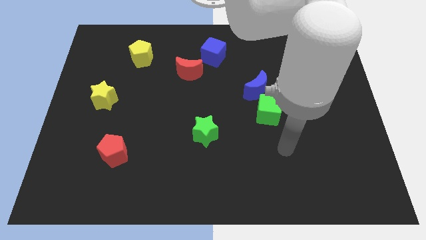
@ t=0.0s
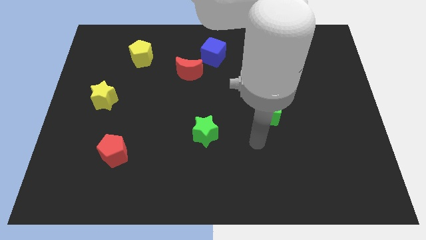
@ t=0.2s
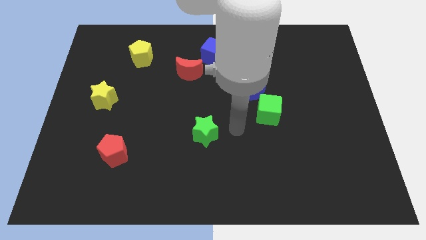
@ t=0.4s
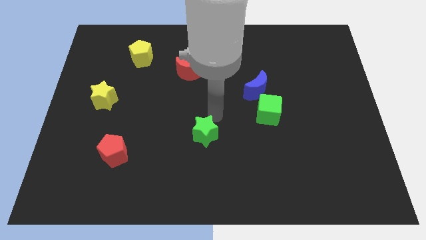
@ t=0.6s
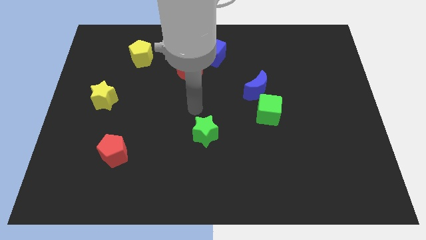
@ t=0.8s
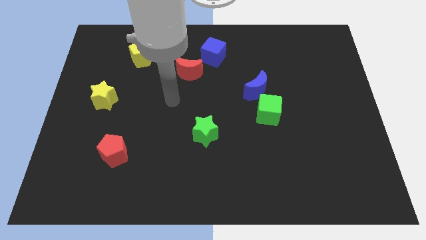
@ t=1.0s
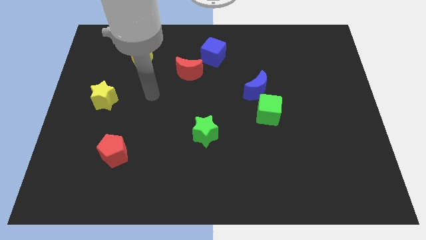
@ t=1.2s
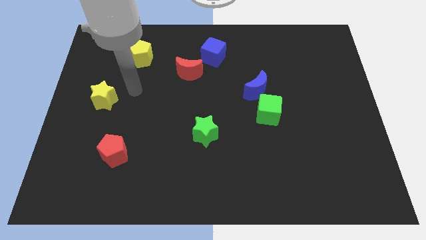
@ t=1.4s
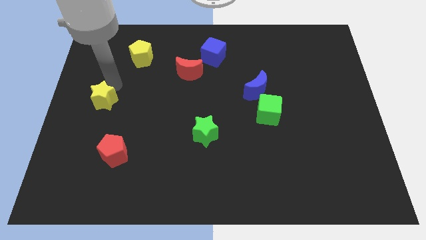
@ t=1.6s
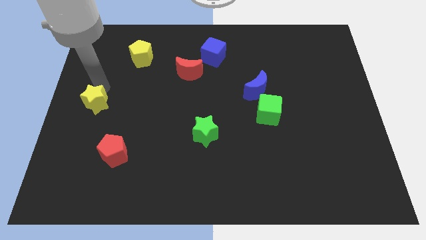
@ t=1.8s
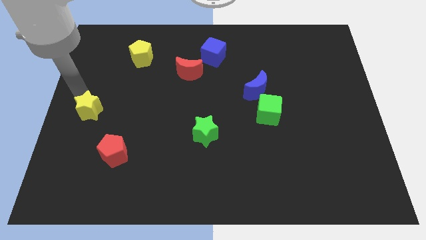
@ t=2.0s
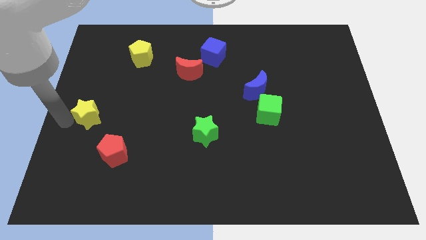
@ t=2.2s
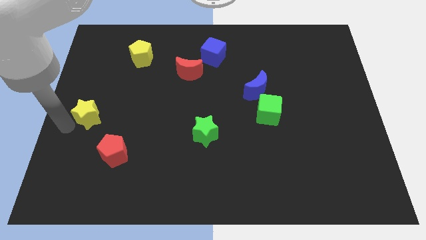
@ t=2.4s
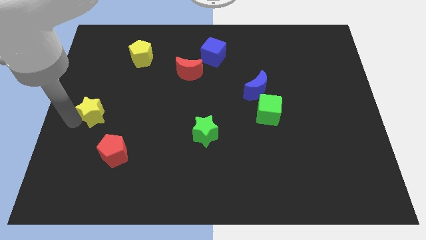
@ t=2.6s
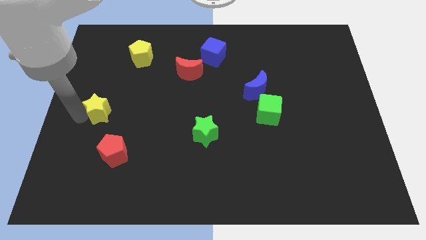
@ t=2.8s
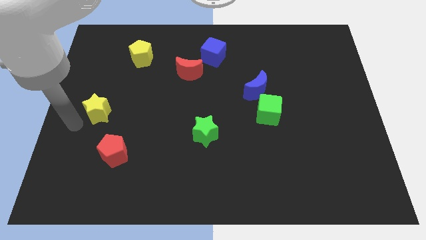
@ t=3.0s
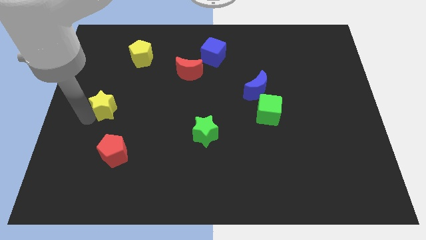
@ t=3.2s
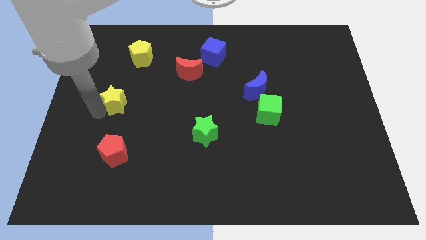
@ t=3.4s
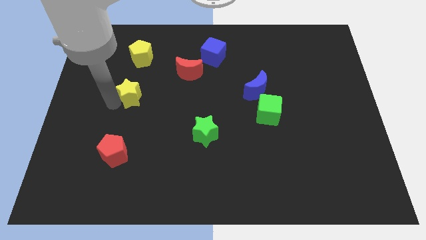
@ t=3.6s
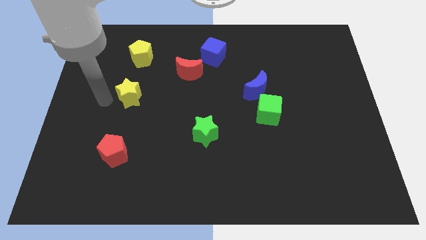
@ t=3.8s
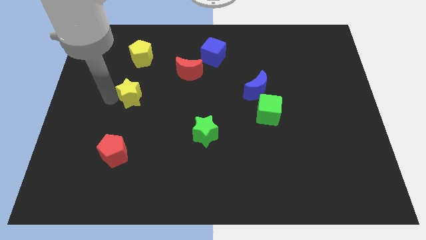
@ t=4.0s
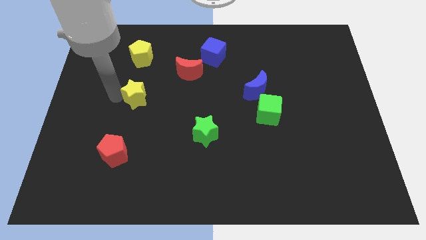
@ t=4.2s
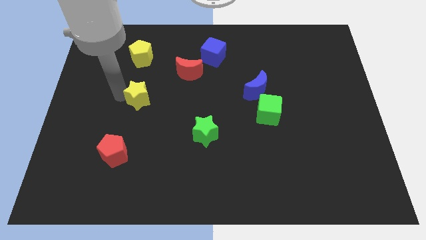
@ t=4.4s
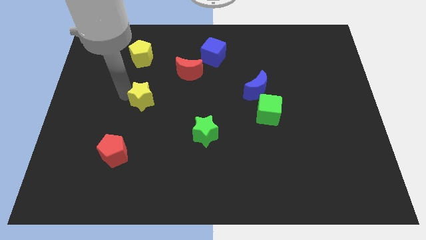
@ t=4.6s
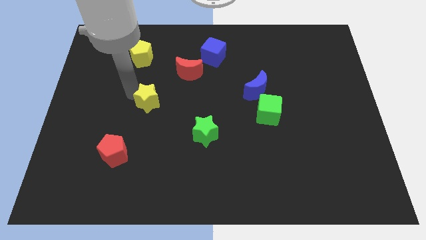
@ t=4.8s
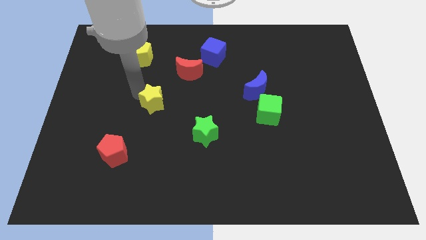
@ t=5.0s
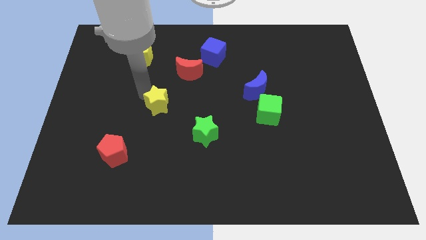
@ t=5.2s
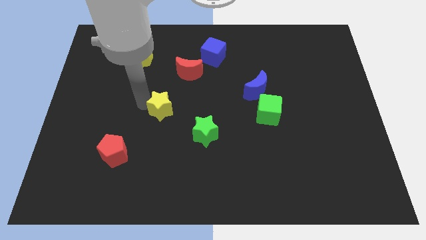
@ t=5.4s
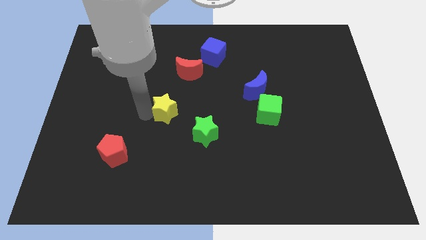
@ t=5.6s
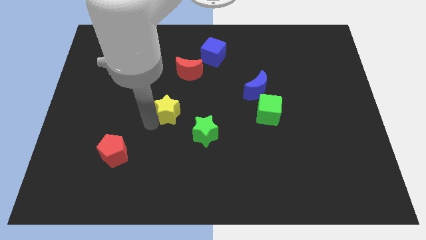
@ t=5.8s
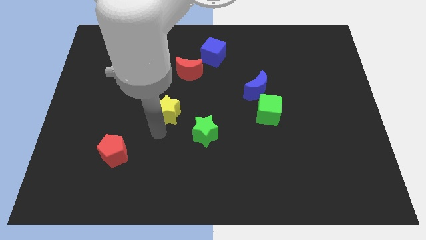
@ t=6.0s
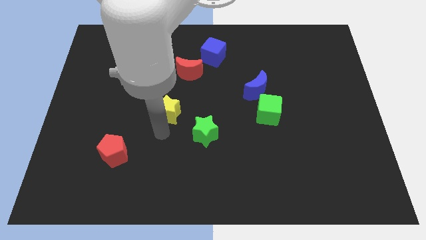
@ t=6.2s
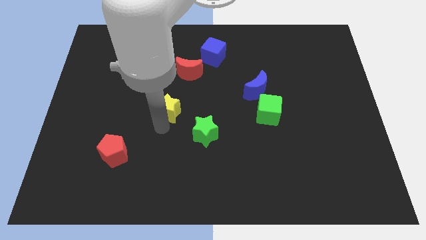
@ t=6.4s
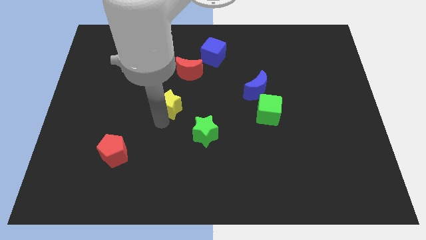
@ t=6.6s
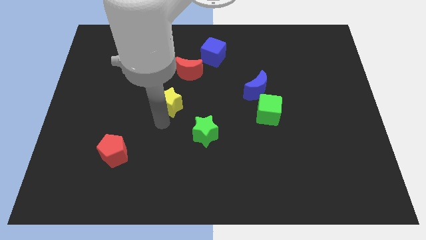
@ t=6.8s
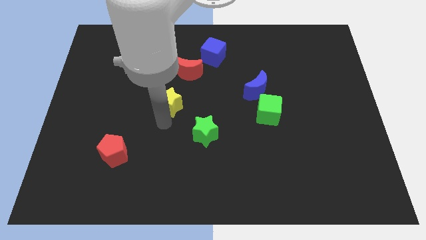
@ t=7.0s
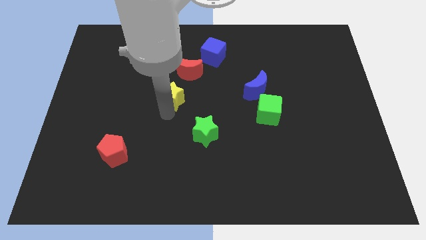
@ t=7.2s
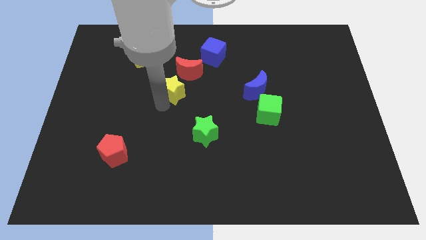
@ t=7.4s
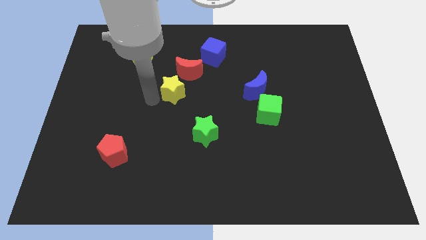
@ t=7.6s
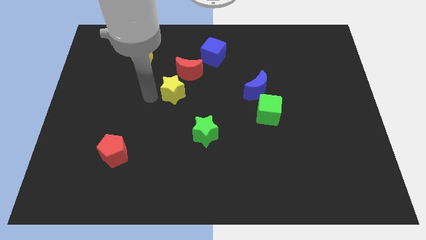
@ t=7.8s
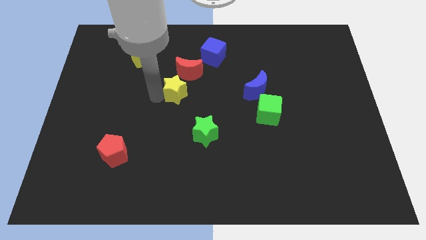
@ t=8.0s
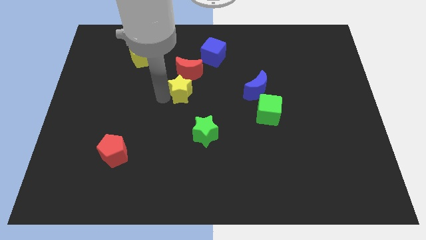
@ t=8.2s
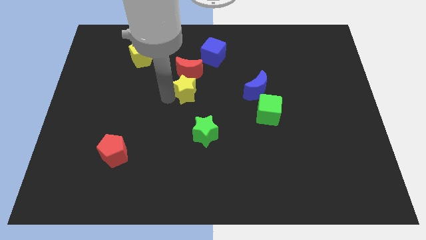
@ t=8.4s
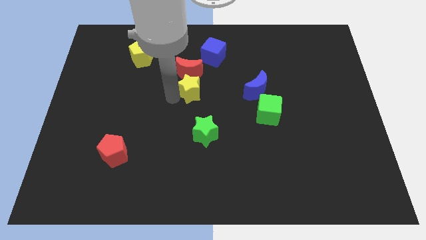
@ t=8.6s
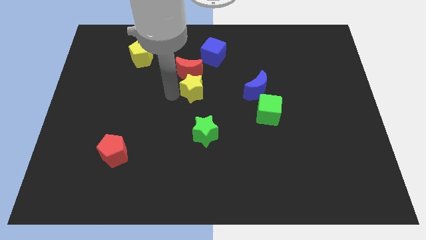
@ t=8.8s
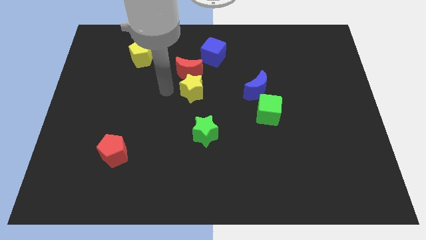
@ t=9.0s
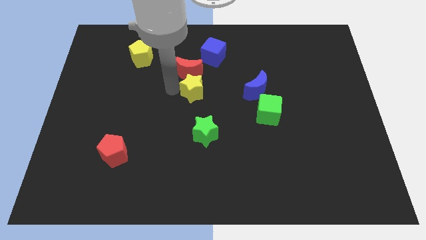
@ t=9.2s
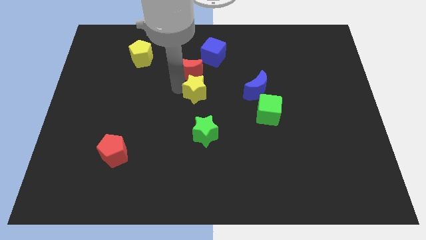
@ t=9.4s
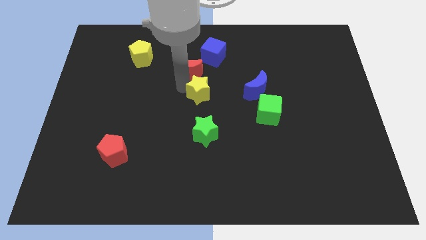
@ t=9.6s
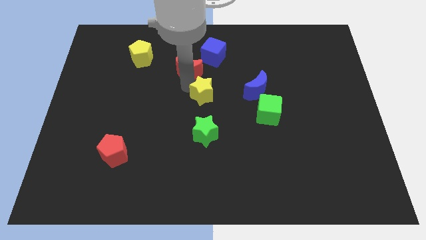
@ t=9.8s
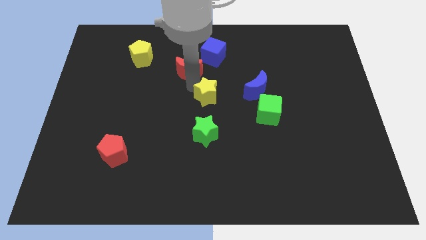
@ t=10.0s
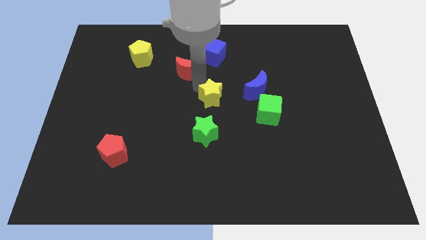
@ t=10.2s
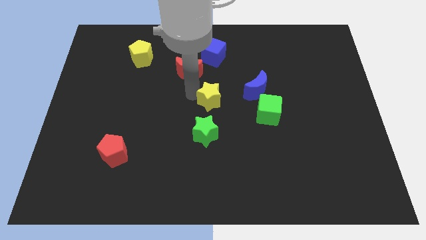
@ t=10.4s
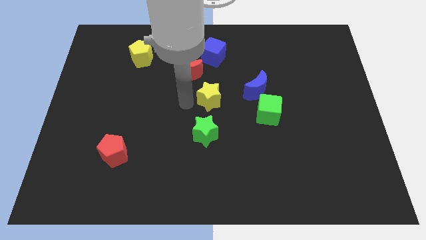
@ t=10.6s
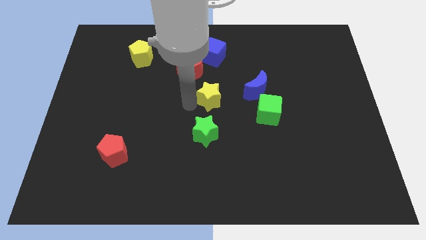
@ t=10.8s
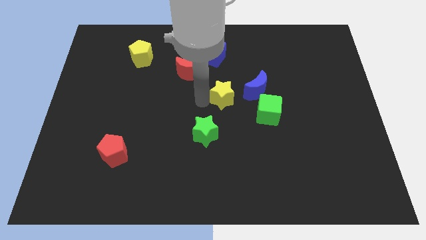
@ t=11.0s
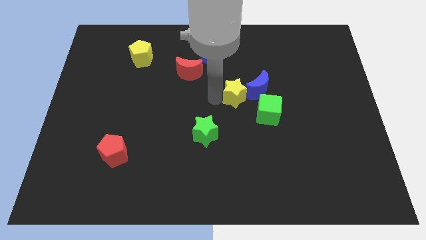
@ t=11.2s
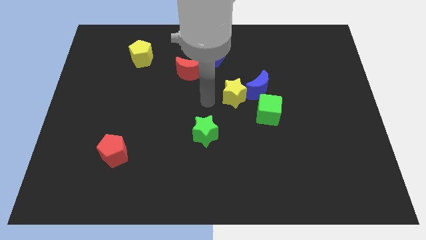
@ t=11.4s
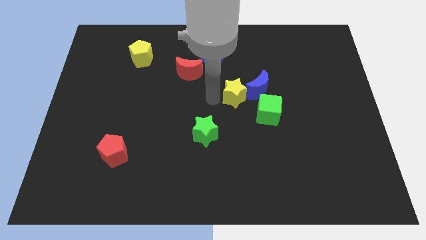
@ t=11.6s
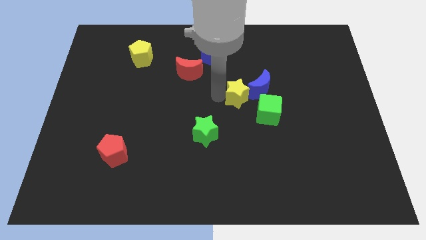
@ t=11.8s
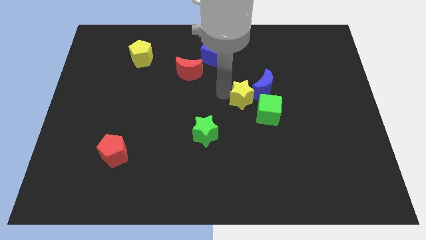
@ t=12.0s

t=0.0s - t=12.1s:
move the yellow star to the blue moon

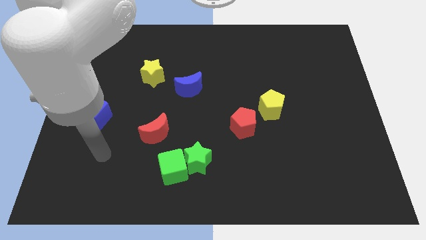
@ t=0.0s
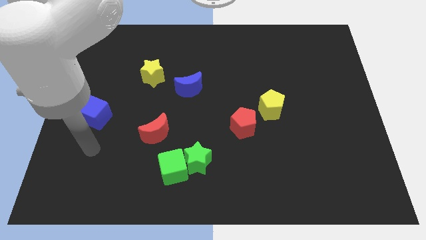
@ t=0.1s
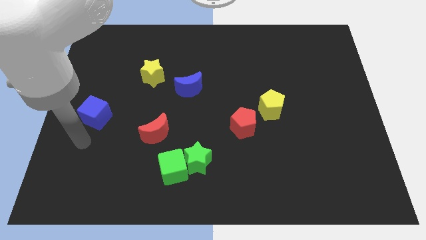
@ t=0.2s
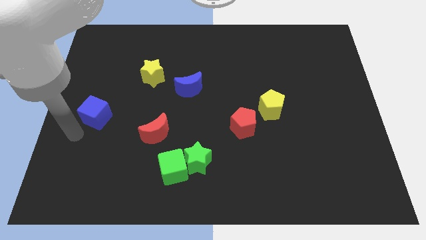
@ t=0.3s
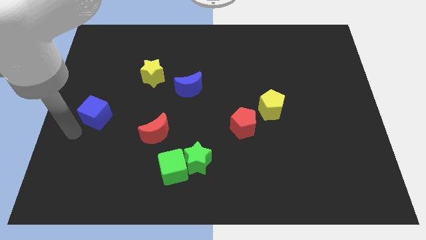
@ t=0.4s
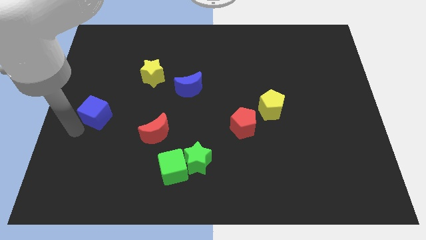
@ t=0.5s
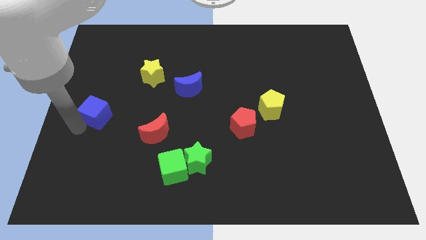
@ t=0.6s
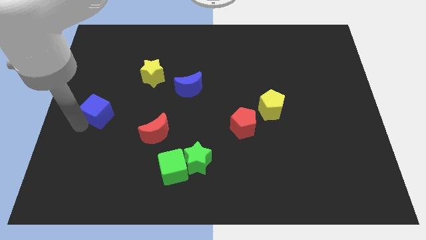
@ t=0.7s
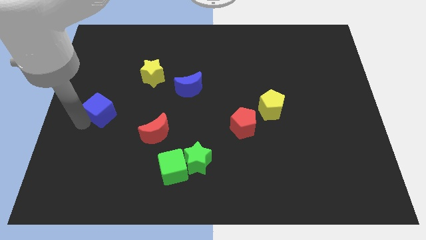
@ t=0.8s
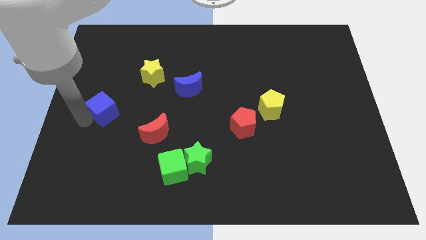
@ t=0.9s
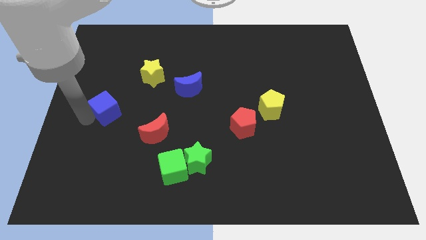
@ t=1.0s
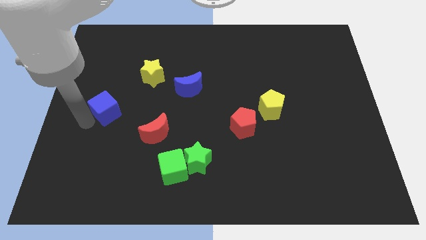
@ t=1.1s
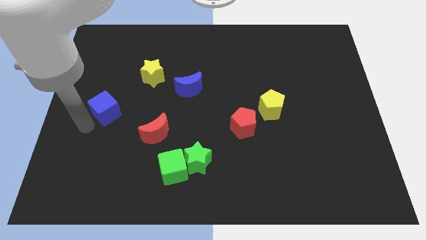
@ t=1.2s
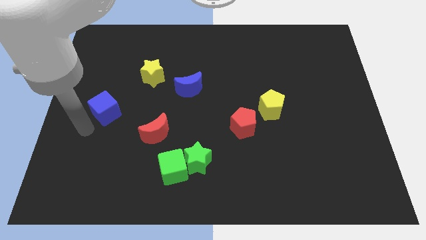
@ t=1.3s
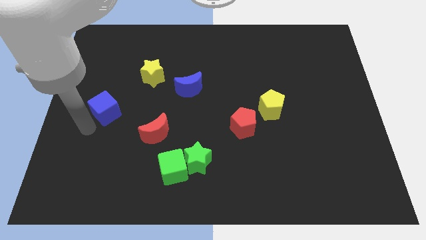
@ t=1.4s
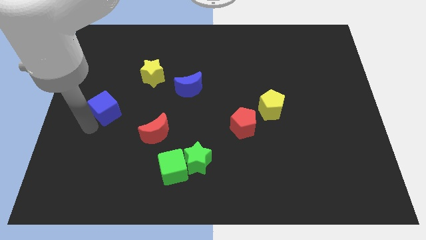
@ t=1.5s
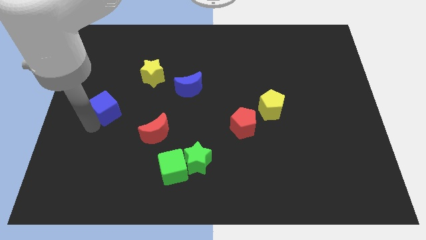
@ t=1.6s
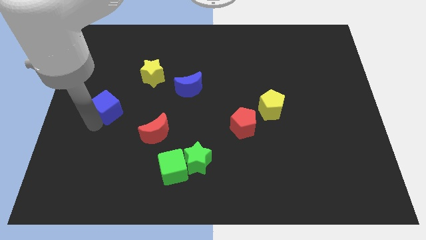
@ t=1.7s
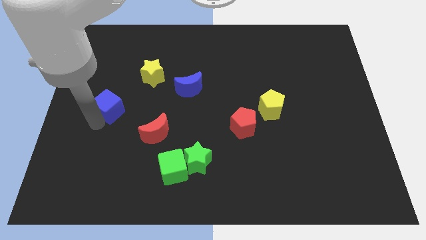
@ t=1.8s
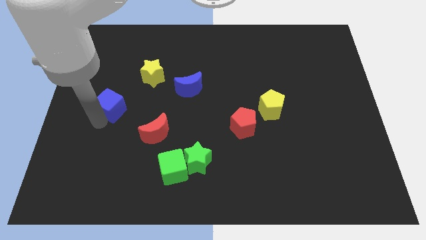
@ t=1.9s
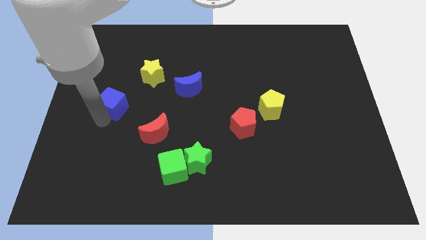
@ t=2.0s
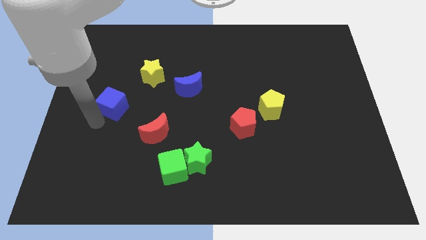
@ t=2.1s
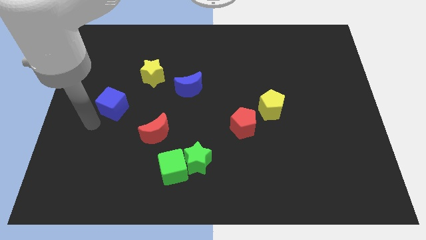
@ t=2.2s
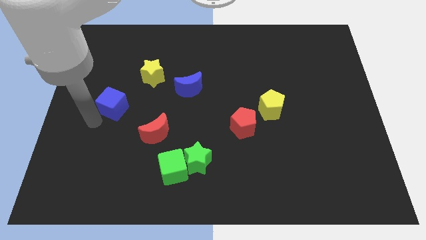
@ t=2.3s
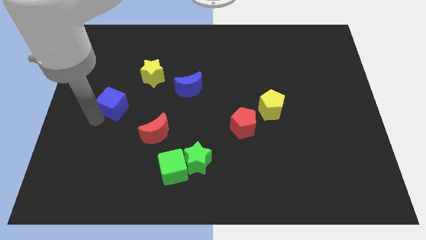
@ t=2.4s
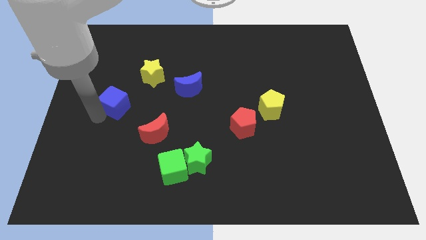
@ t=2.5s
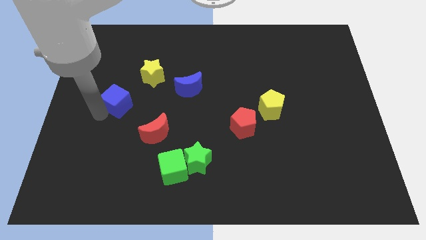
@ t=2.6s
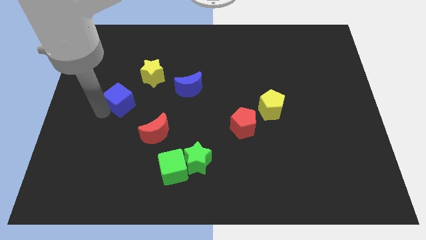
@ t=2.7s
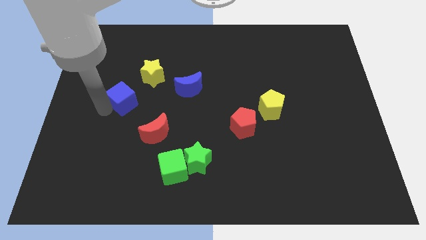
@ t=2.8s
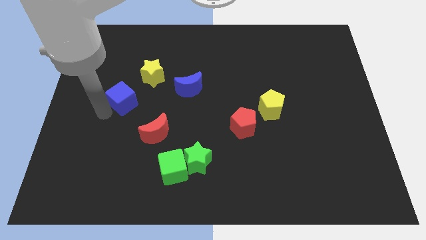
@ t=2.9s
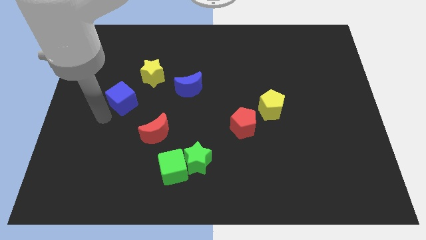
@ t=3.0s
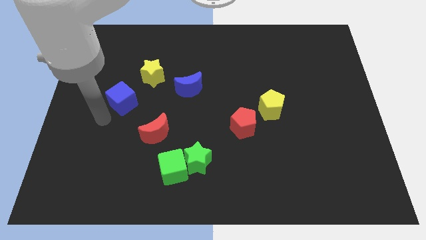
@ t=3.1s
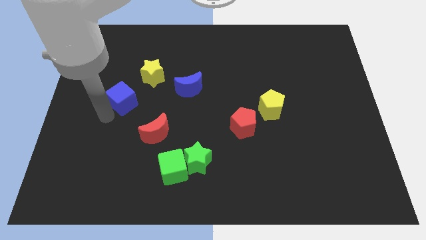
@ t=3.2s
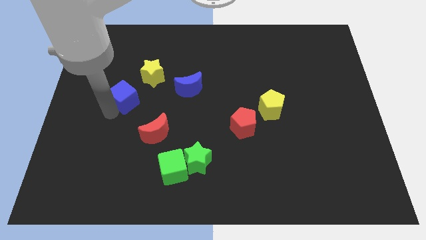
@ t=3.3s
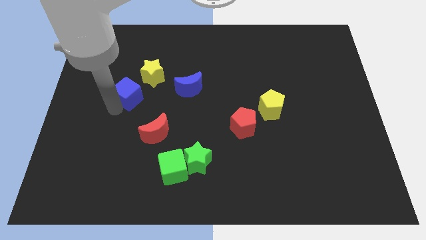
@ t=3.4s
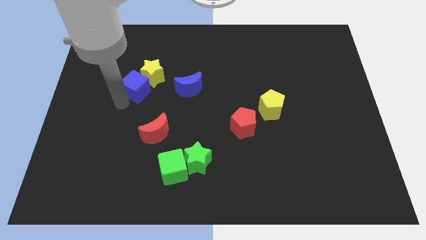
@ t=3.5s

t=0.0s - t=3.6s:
push the blue cube next to the yellow star
